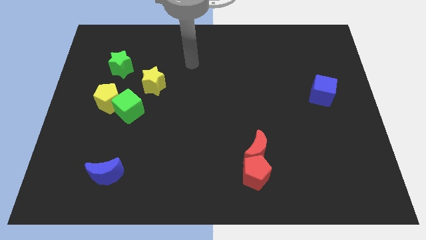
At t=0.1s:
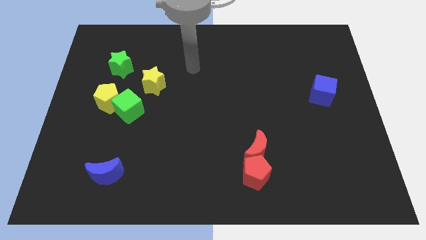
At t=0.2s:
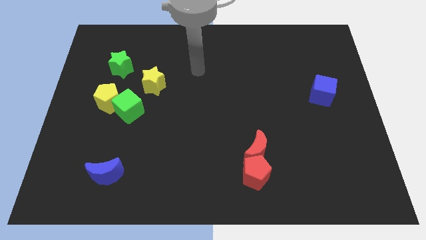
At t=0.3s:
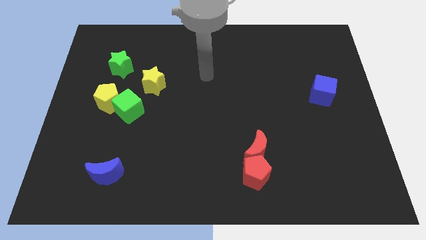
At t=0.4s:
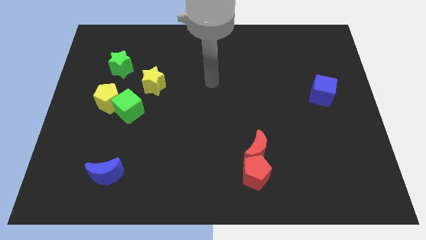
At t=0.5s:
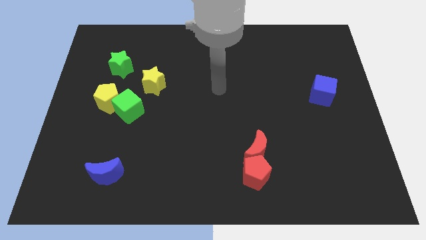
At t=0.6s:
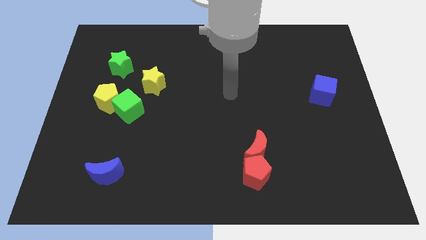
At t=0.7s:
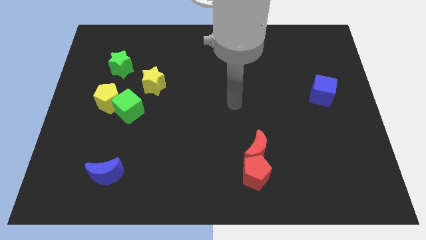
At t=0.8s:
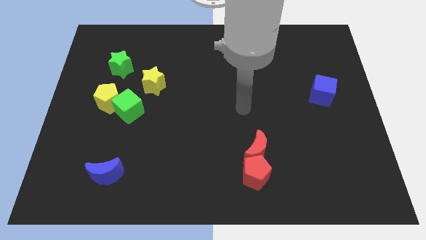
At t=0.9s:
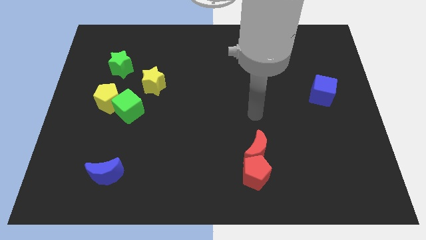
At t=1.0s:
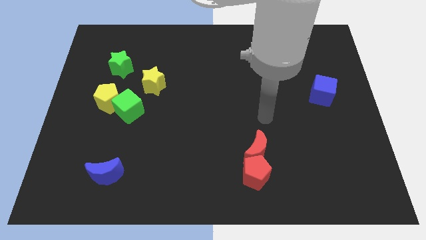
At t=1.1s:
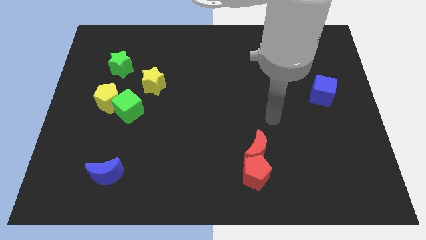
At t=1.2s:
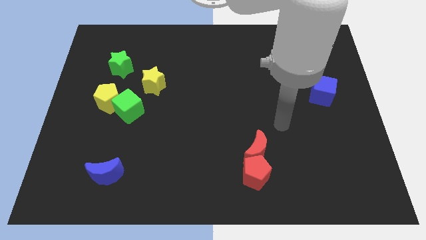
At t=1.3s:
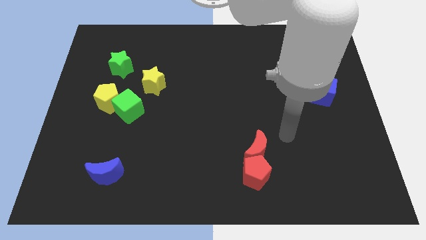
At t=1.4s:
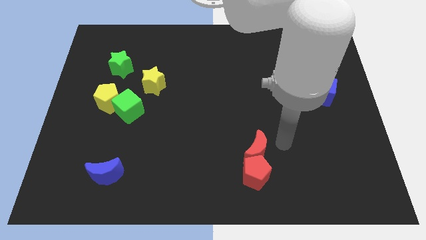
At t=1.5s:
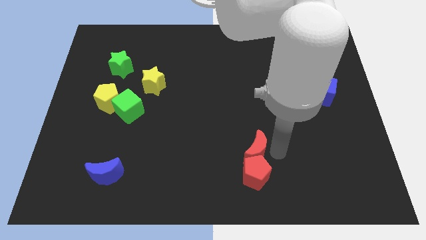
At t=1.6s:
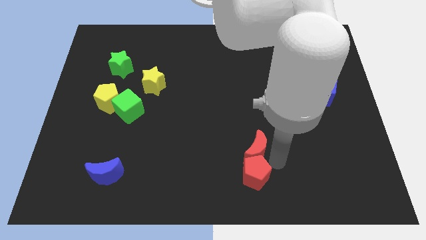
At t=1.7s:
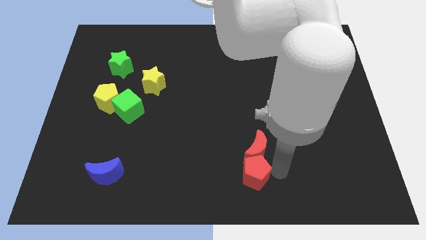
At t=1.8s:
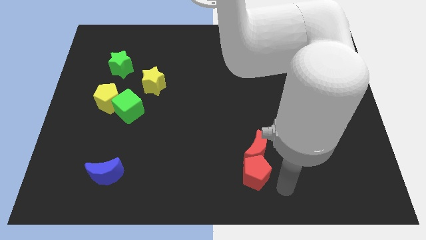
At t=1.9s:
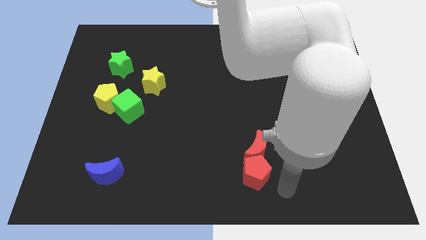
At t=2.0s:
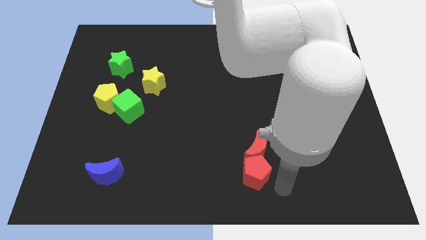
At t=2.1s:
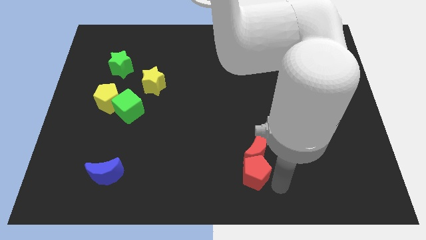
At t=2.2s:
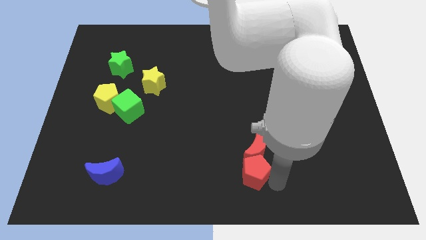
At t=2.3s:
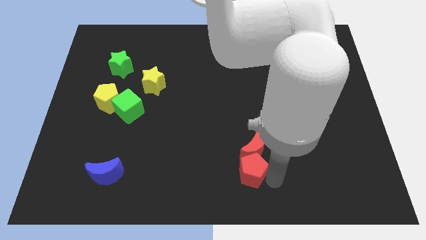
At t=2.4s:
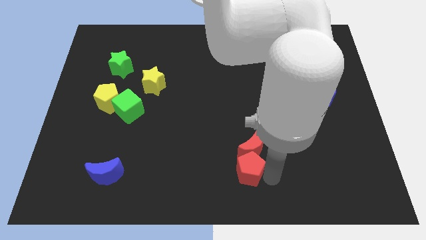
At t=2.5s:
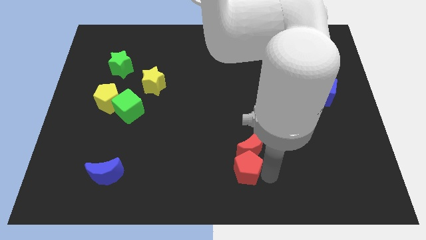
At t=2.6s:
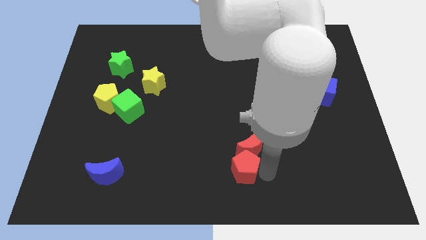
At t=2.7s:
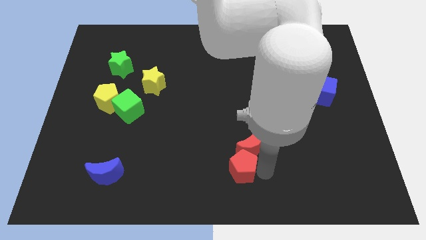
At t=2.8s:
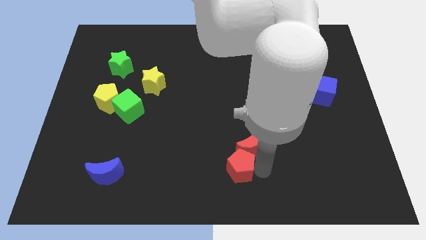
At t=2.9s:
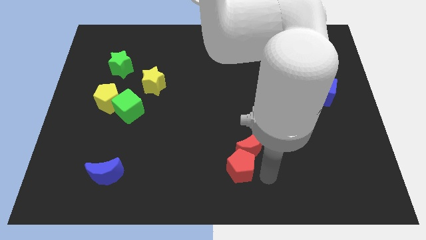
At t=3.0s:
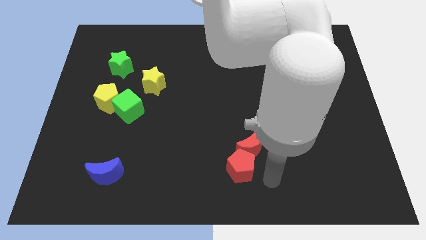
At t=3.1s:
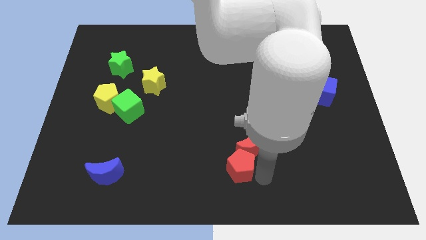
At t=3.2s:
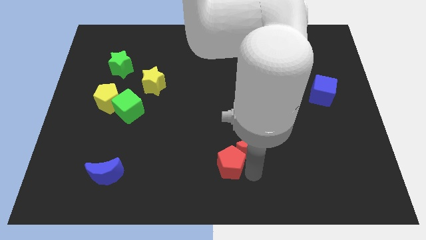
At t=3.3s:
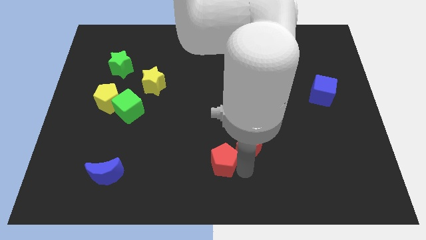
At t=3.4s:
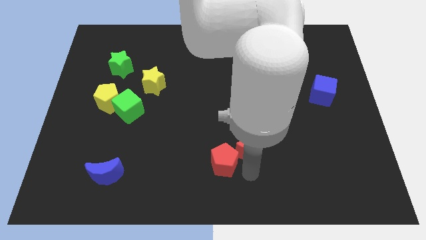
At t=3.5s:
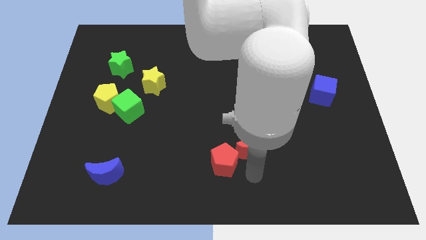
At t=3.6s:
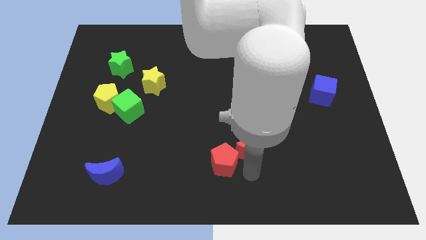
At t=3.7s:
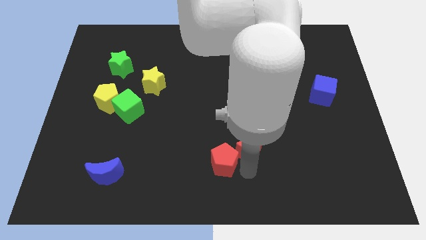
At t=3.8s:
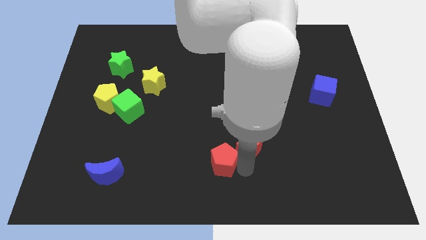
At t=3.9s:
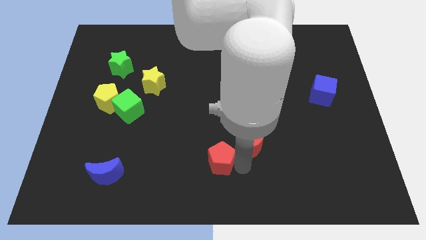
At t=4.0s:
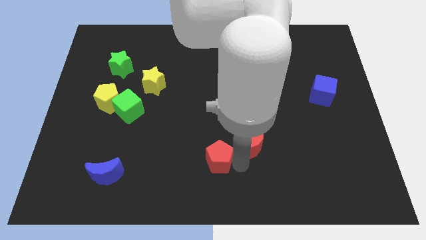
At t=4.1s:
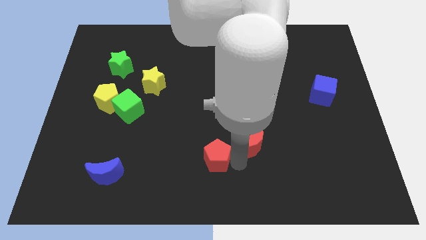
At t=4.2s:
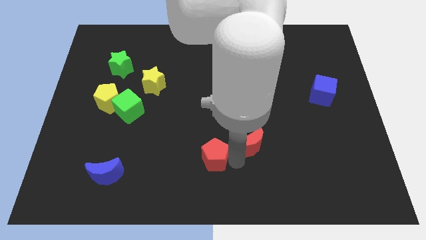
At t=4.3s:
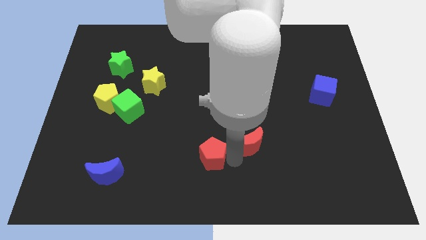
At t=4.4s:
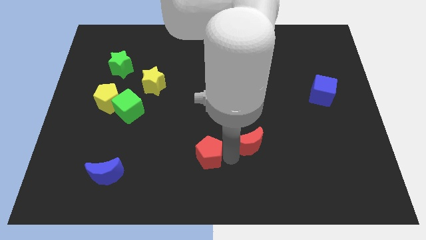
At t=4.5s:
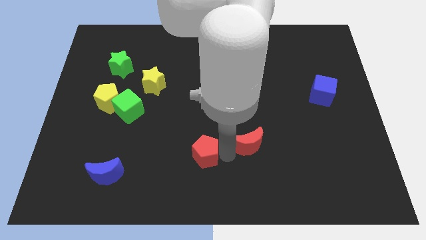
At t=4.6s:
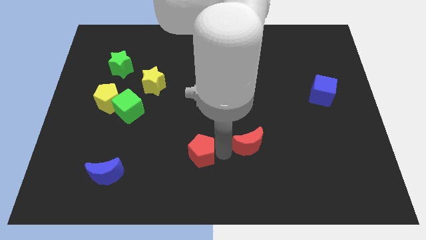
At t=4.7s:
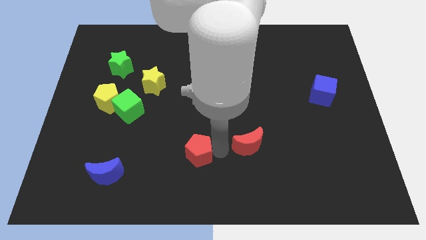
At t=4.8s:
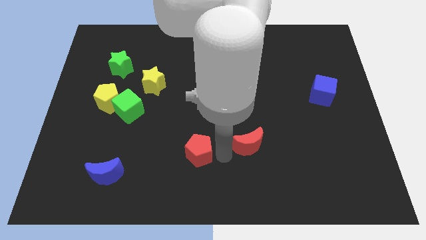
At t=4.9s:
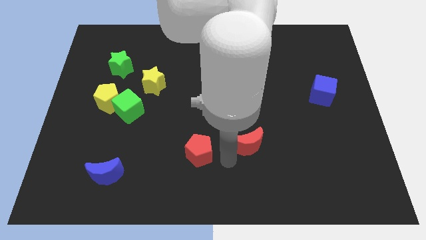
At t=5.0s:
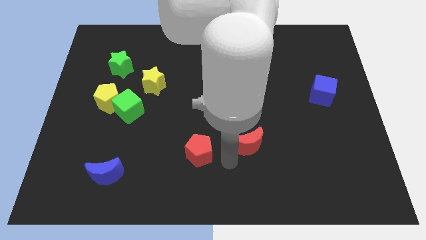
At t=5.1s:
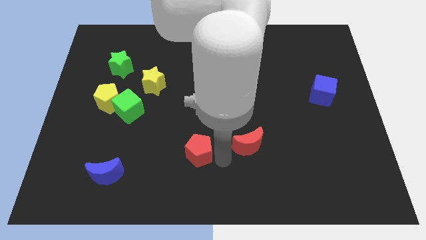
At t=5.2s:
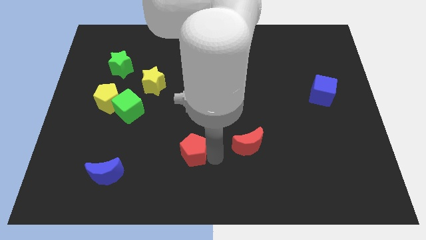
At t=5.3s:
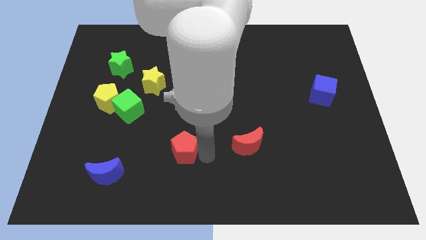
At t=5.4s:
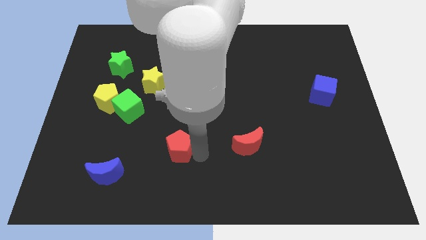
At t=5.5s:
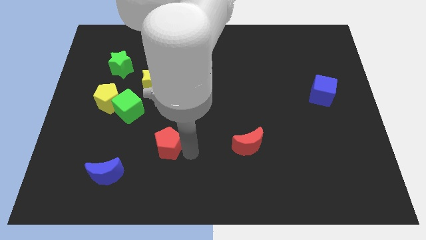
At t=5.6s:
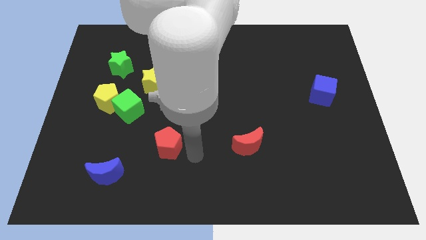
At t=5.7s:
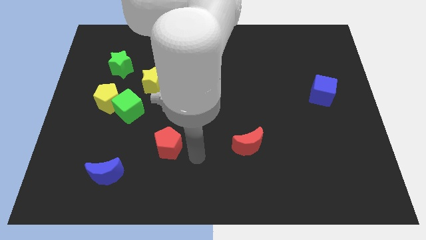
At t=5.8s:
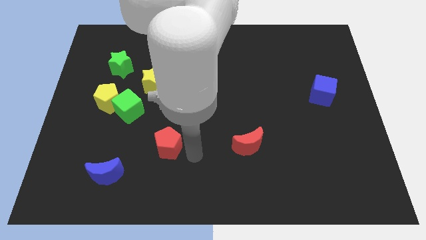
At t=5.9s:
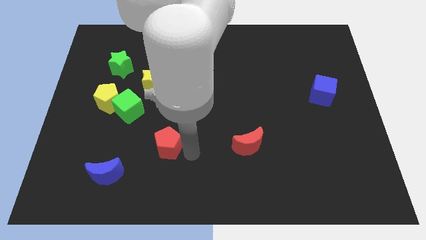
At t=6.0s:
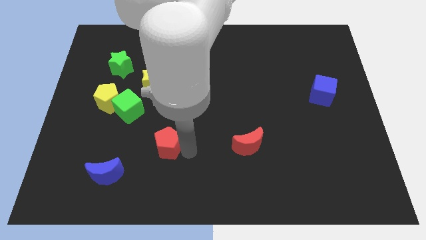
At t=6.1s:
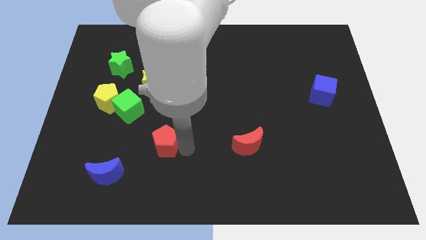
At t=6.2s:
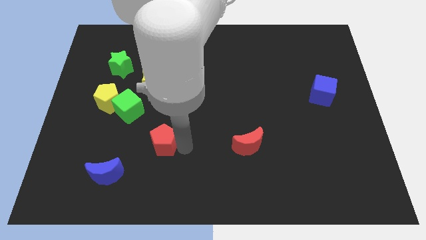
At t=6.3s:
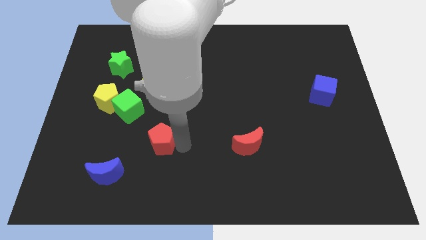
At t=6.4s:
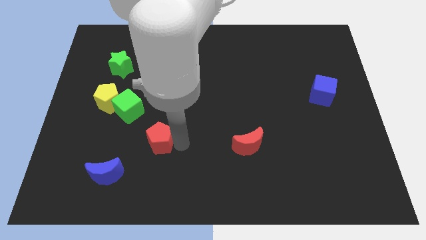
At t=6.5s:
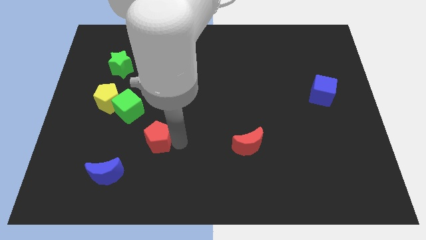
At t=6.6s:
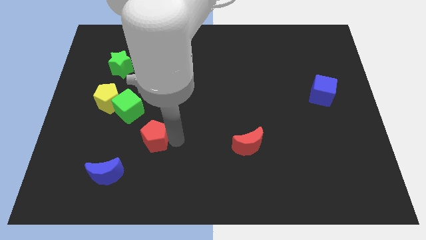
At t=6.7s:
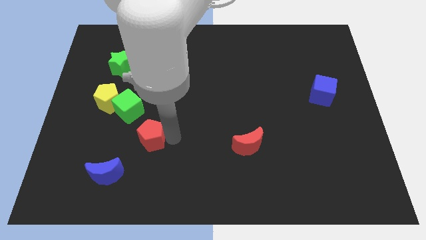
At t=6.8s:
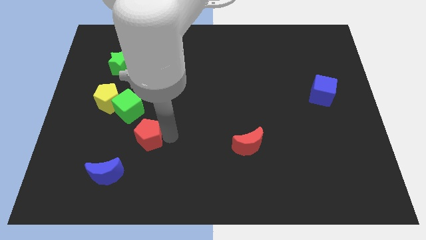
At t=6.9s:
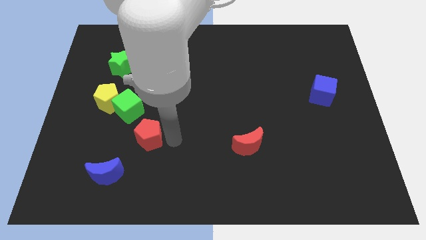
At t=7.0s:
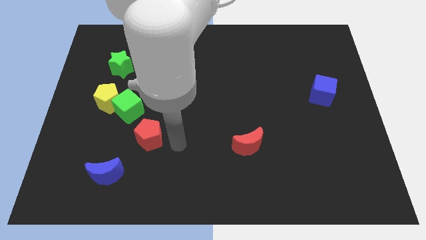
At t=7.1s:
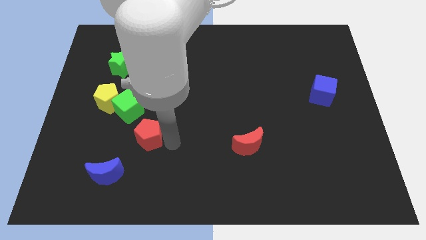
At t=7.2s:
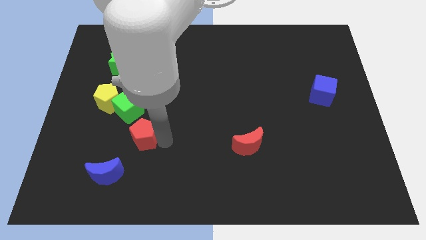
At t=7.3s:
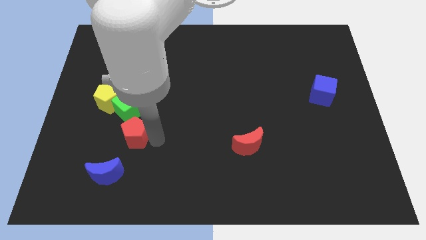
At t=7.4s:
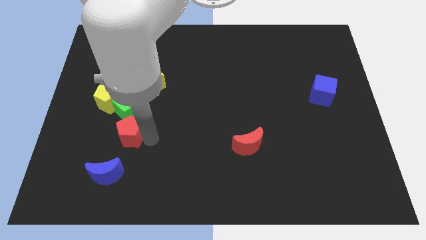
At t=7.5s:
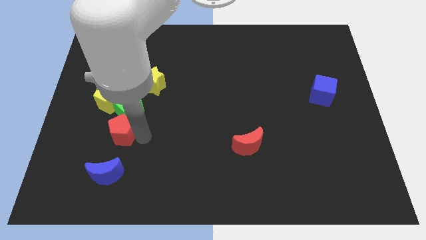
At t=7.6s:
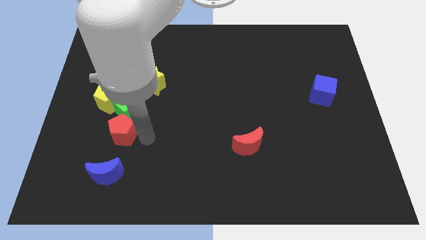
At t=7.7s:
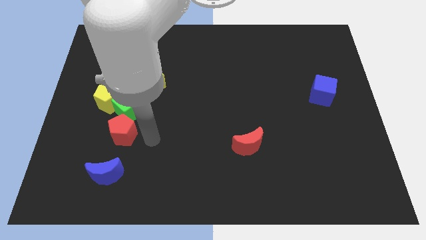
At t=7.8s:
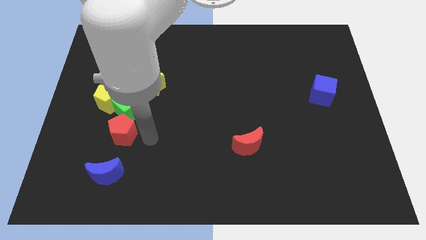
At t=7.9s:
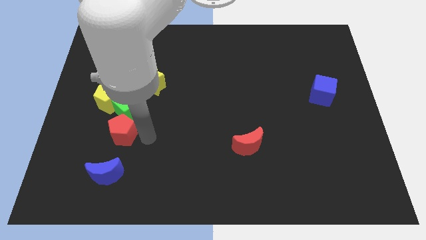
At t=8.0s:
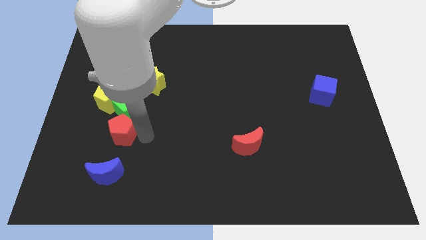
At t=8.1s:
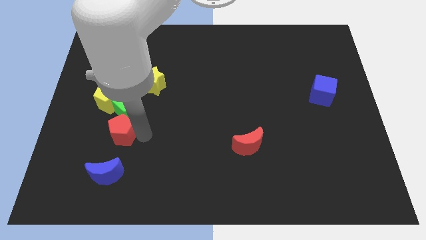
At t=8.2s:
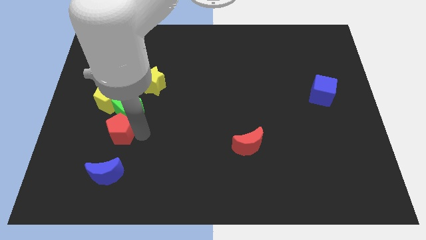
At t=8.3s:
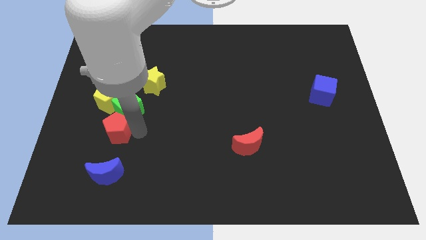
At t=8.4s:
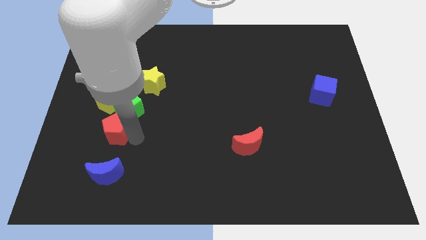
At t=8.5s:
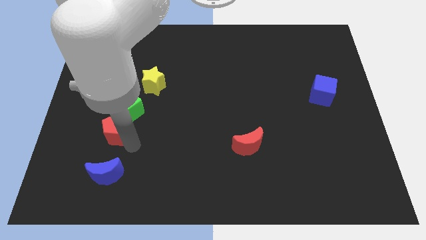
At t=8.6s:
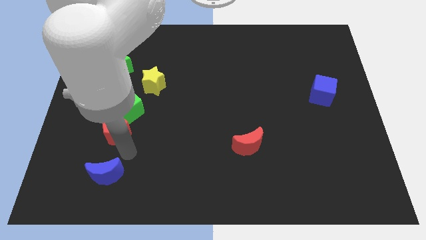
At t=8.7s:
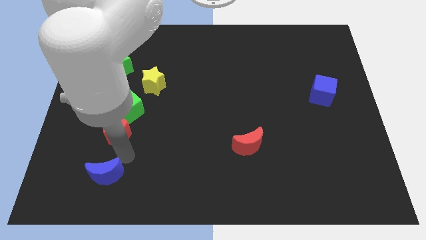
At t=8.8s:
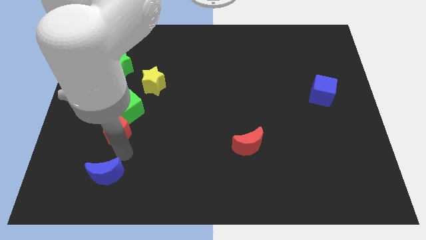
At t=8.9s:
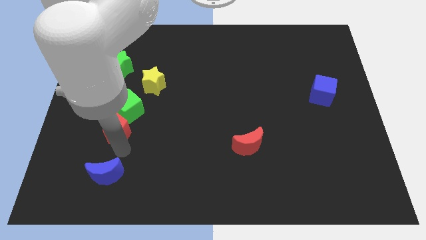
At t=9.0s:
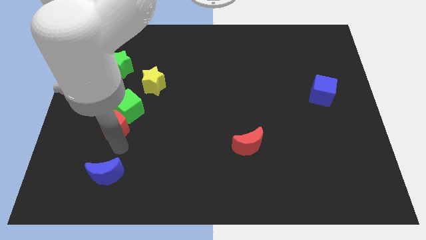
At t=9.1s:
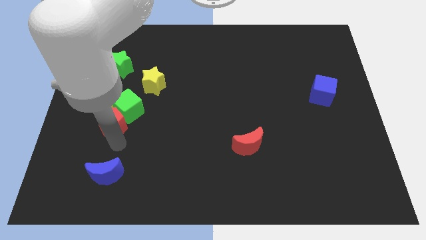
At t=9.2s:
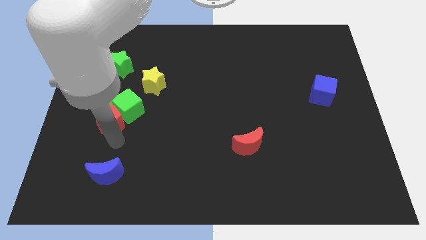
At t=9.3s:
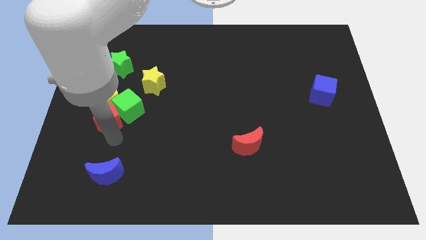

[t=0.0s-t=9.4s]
push the red pentagon to the yellow pentagon
